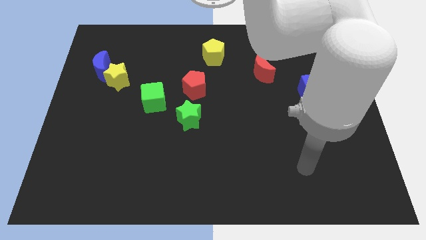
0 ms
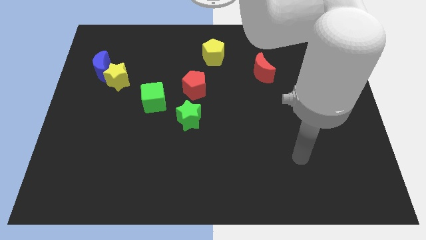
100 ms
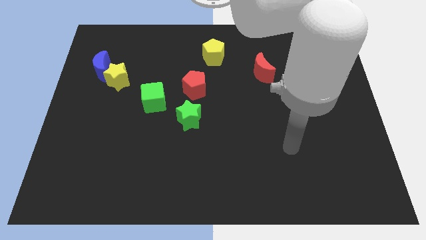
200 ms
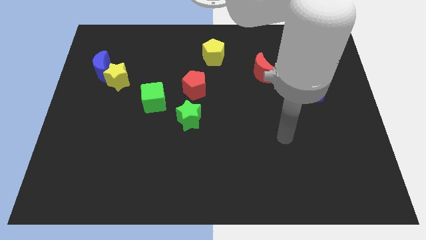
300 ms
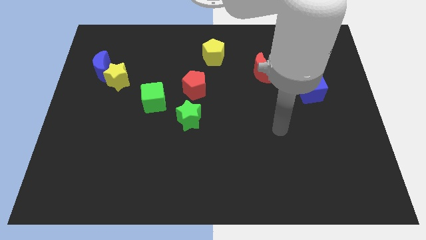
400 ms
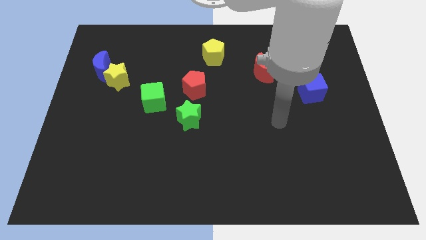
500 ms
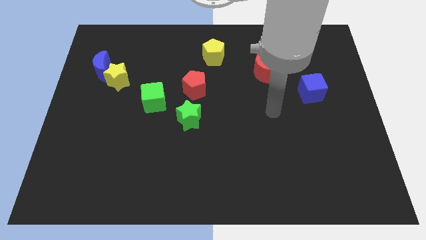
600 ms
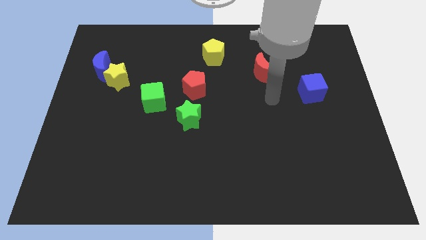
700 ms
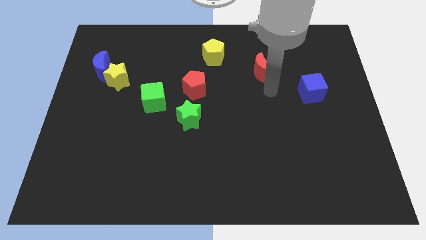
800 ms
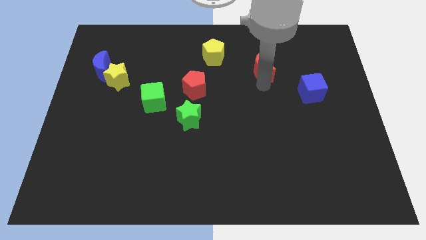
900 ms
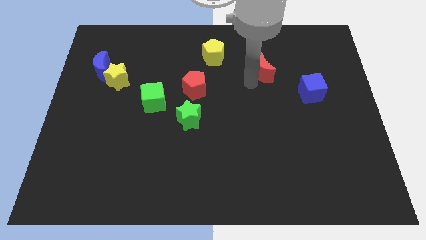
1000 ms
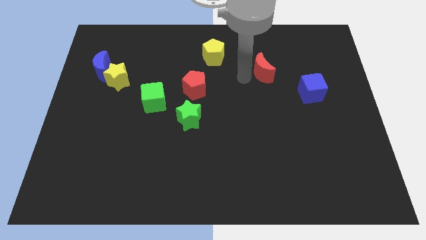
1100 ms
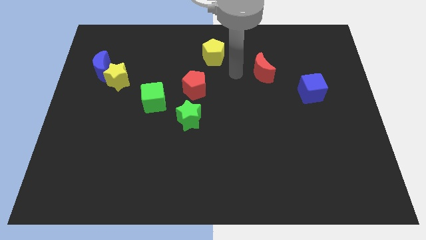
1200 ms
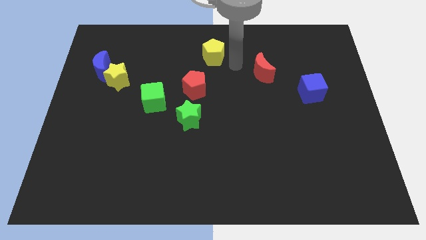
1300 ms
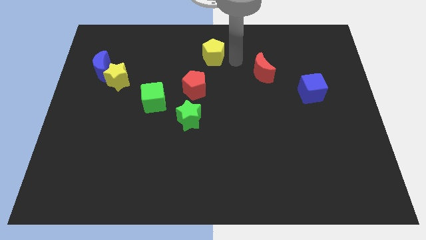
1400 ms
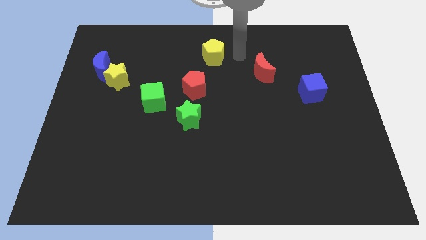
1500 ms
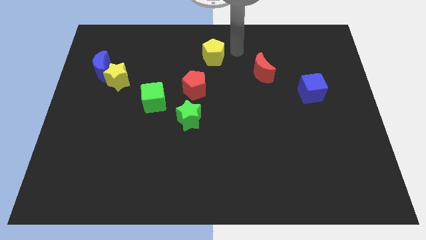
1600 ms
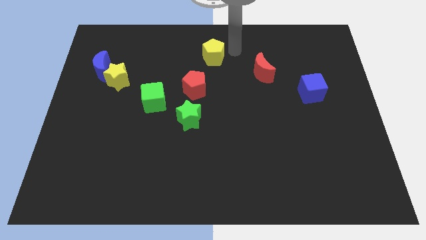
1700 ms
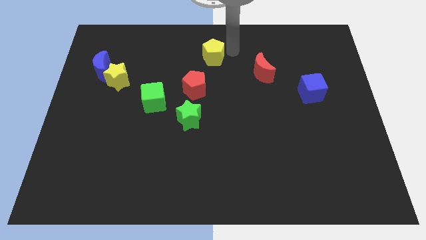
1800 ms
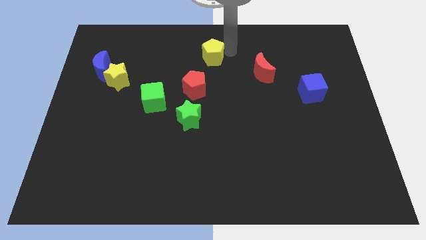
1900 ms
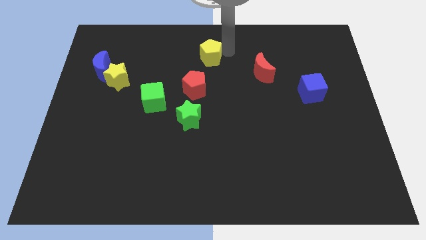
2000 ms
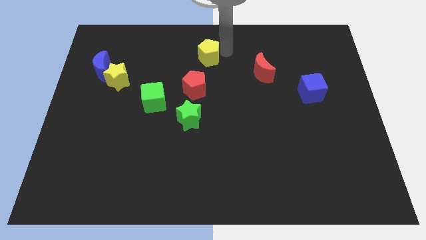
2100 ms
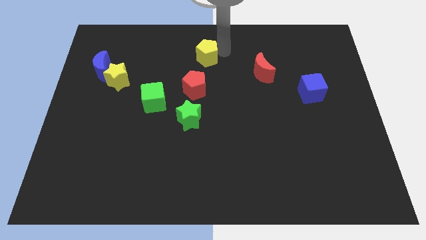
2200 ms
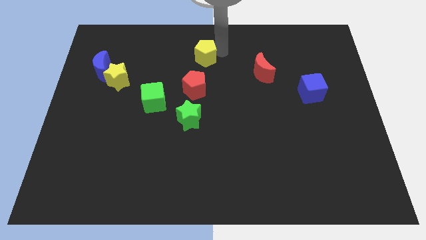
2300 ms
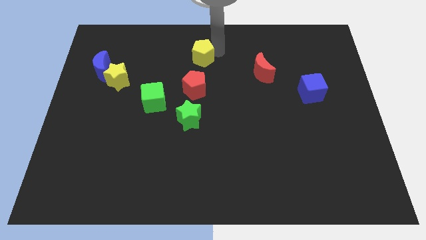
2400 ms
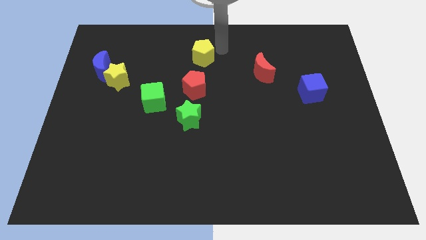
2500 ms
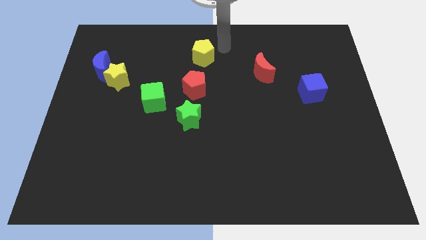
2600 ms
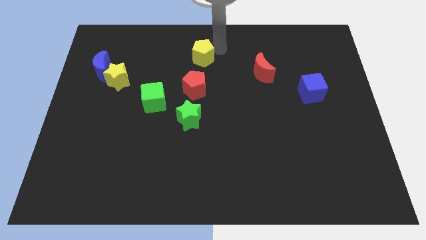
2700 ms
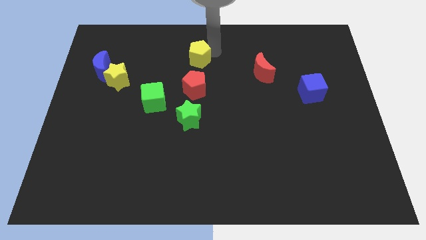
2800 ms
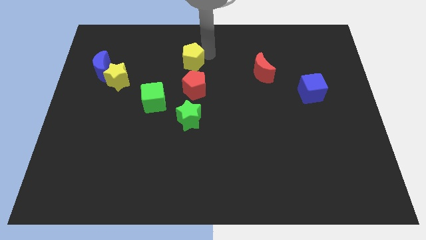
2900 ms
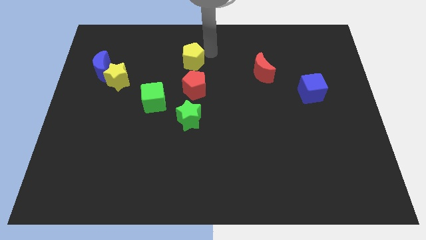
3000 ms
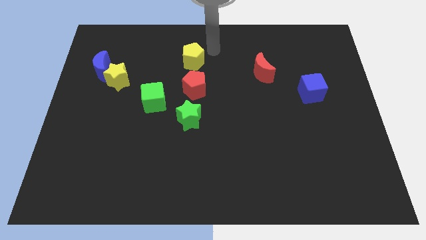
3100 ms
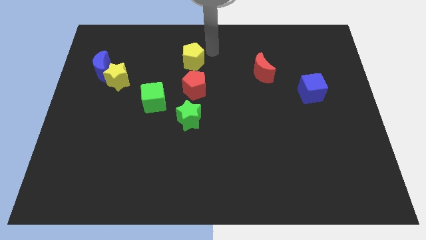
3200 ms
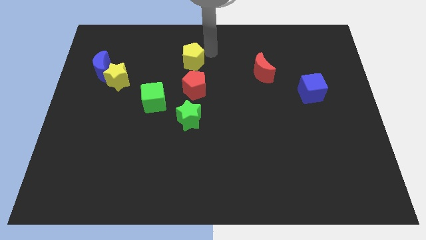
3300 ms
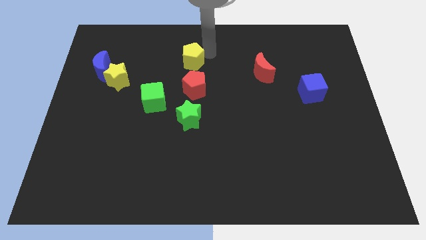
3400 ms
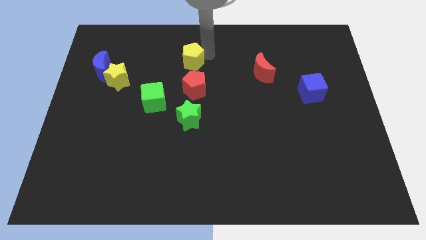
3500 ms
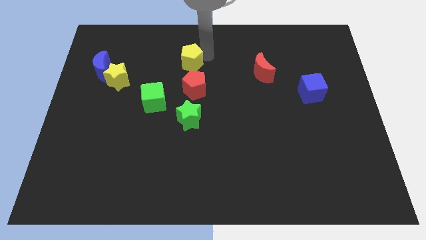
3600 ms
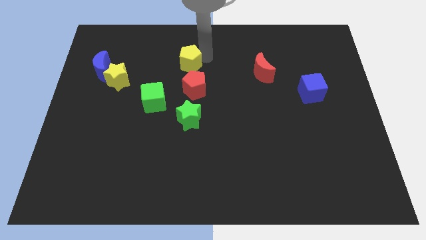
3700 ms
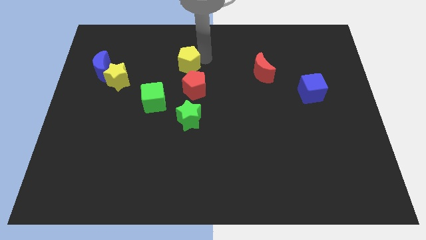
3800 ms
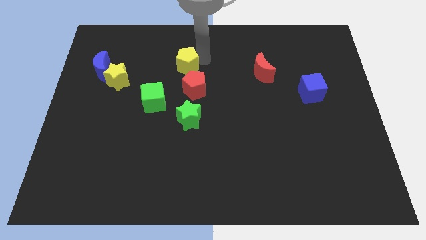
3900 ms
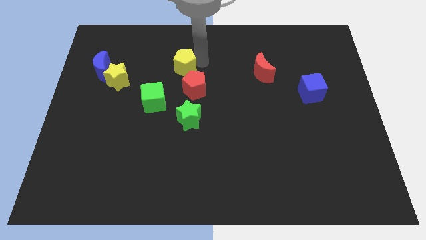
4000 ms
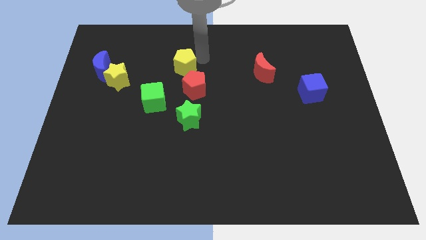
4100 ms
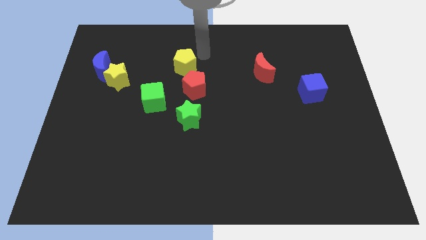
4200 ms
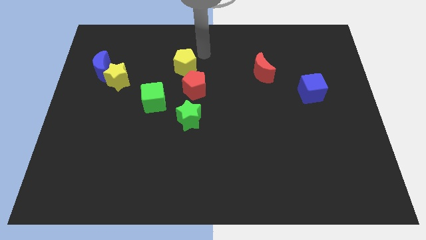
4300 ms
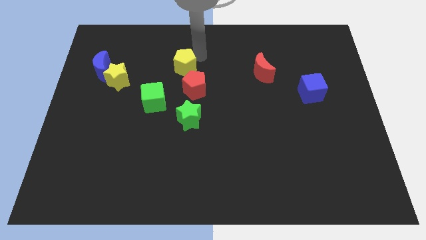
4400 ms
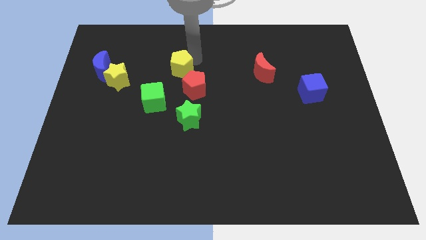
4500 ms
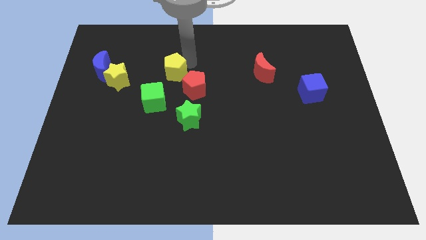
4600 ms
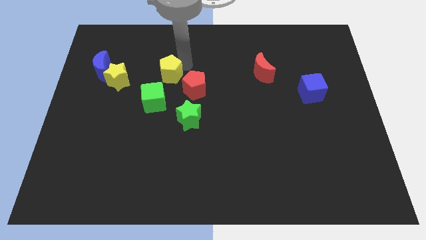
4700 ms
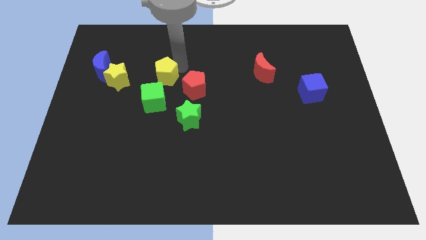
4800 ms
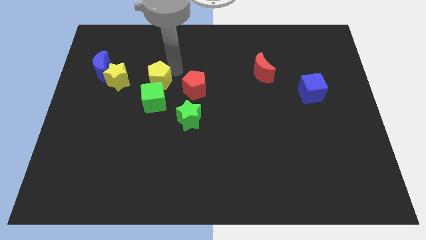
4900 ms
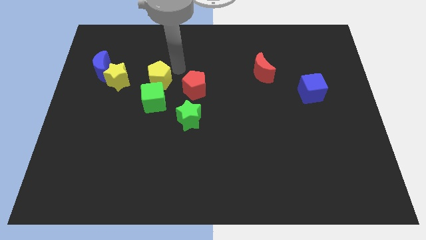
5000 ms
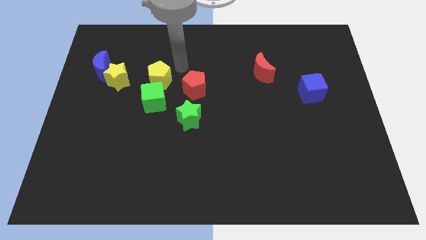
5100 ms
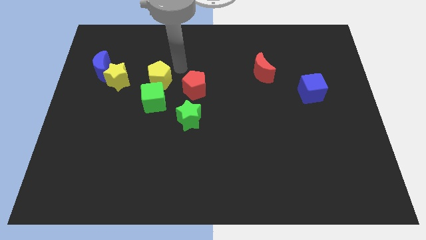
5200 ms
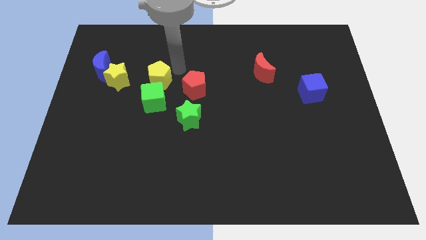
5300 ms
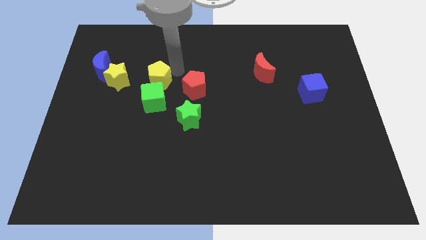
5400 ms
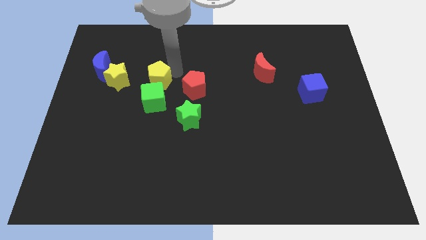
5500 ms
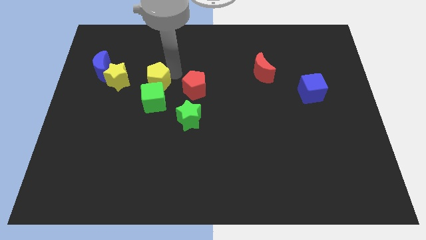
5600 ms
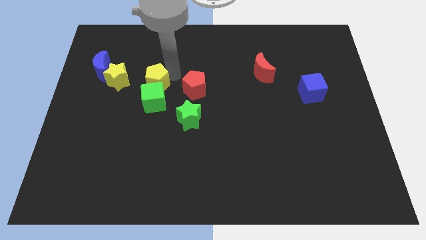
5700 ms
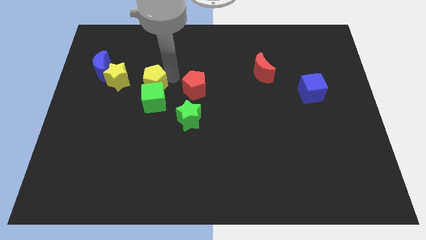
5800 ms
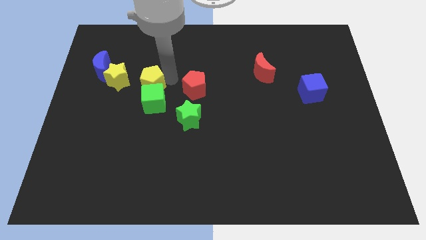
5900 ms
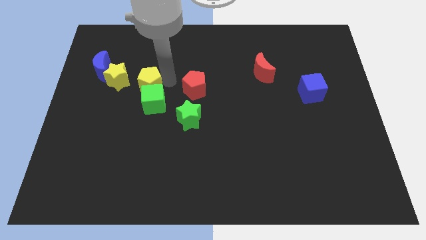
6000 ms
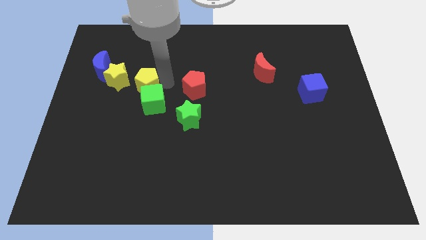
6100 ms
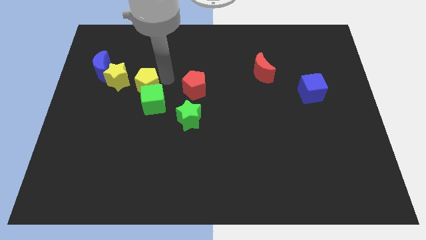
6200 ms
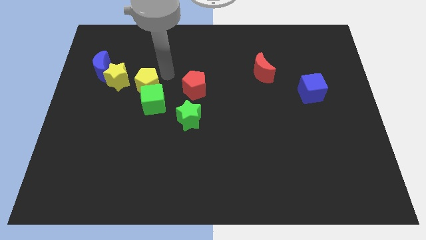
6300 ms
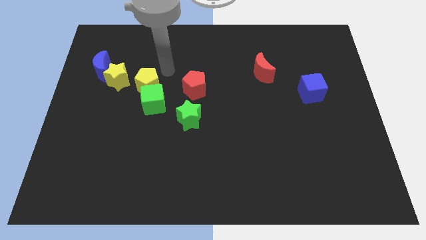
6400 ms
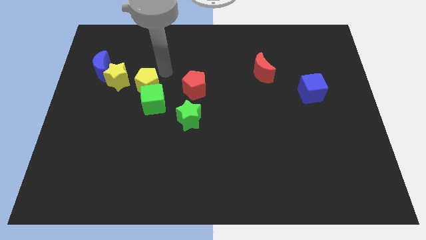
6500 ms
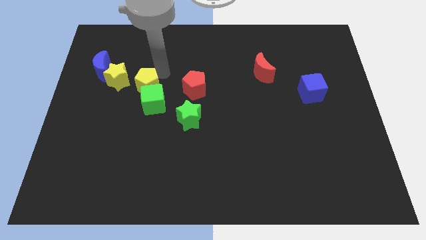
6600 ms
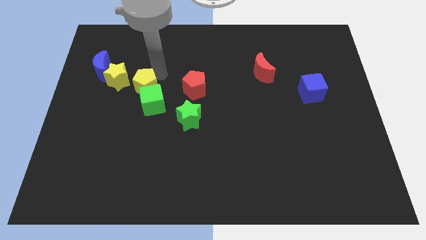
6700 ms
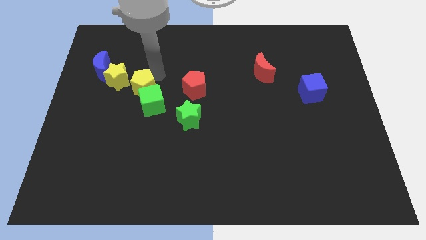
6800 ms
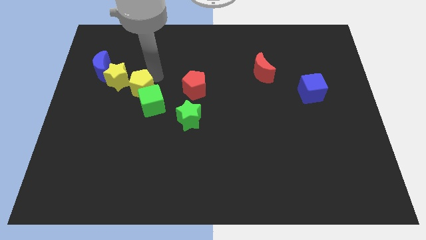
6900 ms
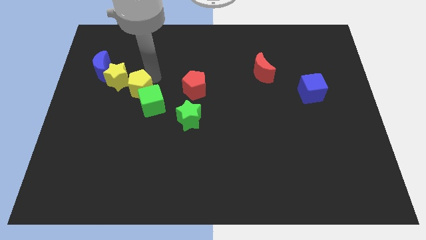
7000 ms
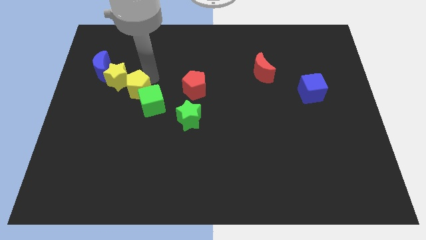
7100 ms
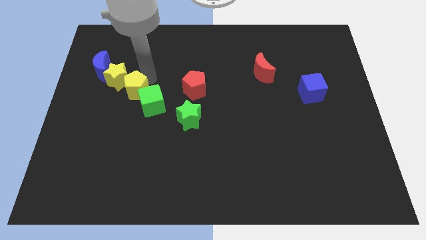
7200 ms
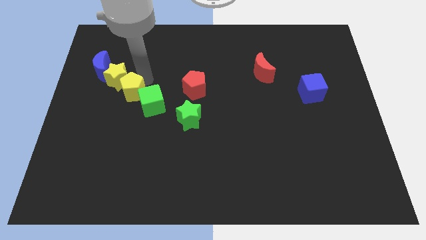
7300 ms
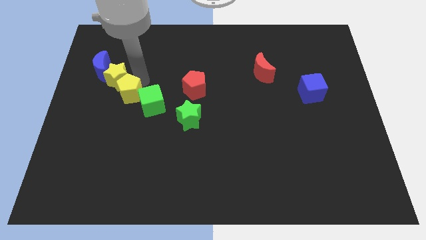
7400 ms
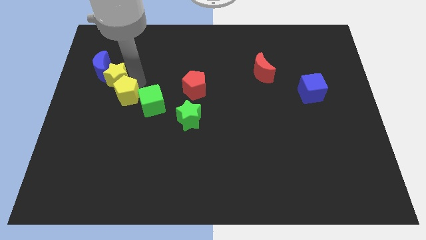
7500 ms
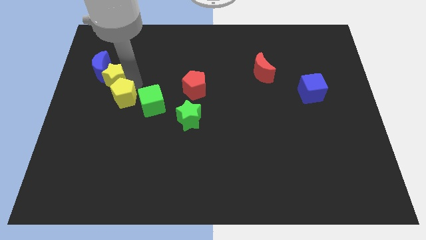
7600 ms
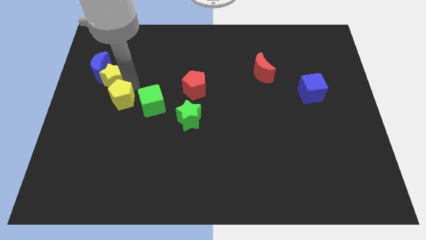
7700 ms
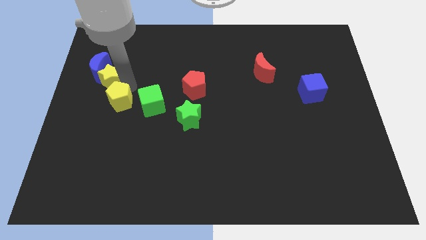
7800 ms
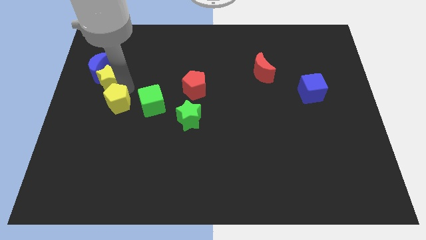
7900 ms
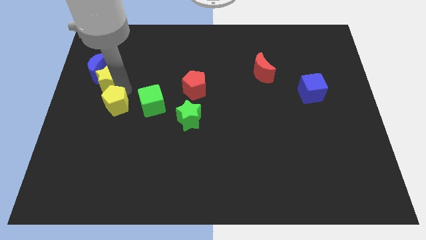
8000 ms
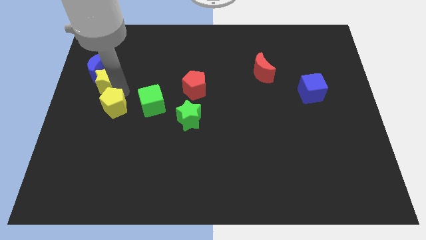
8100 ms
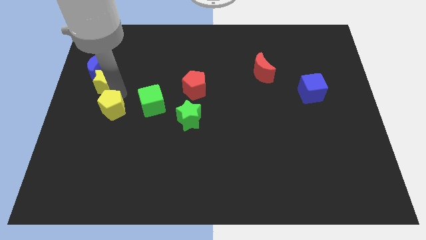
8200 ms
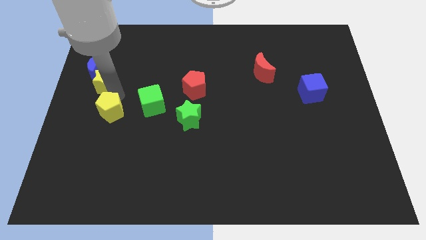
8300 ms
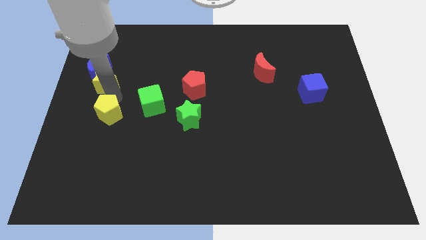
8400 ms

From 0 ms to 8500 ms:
slide the yellow pentagon to the bottom left side of the green cube
